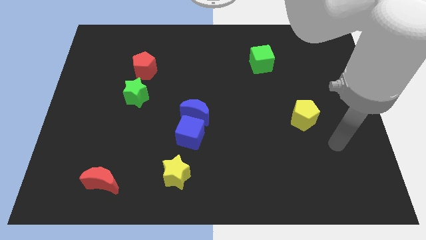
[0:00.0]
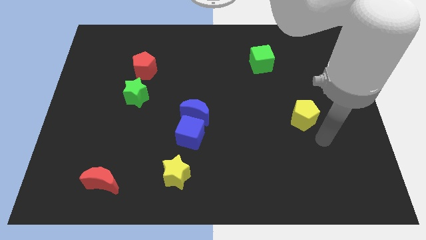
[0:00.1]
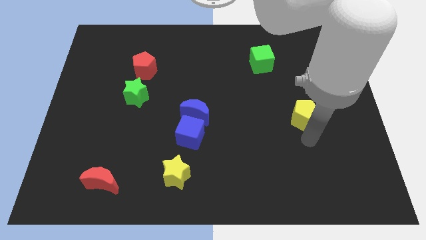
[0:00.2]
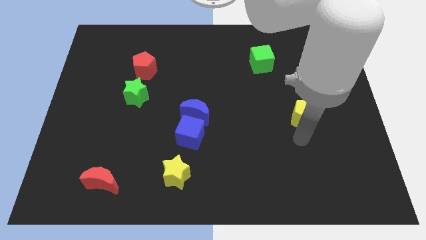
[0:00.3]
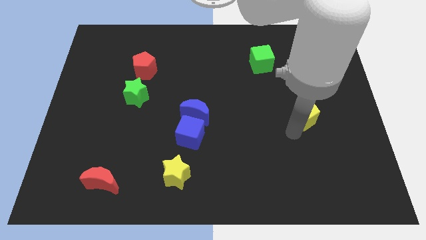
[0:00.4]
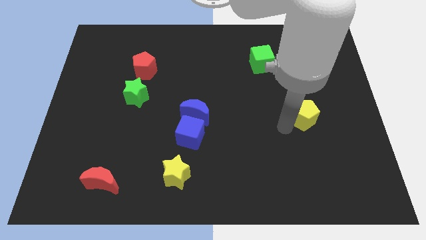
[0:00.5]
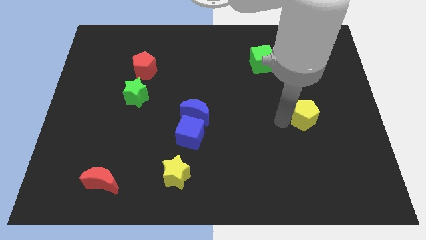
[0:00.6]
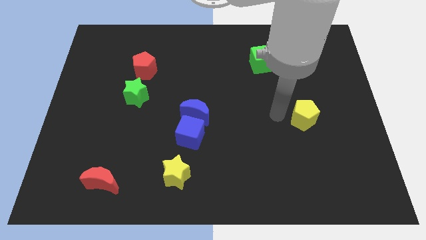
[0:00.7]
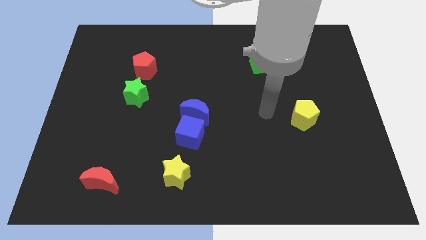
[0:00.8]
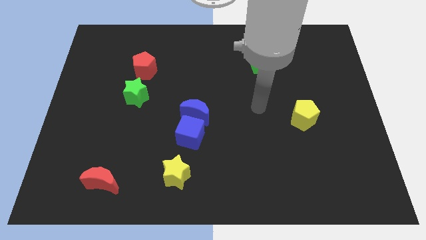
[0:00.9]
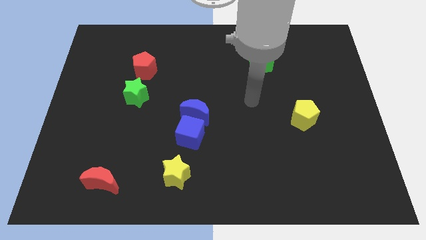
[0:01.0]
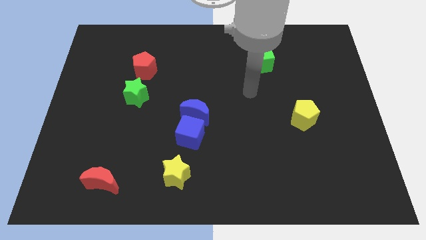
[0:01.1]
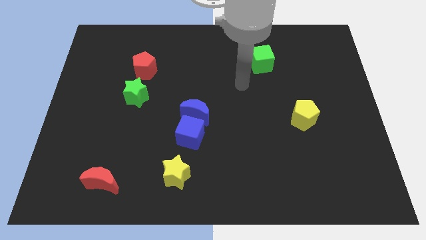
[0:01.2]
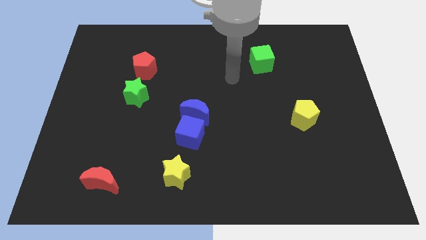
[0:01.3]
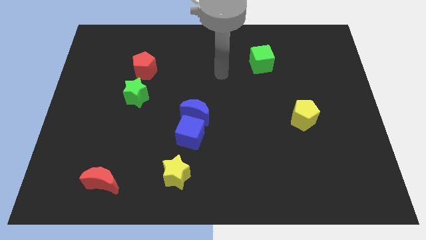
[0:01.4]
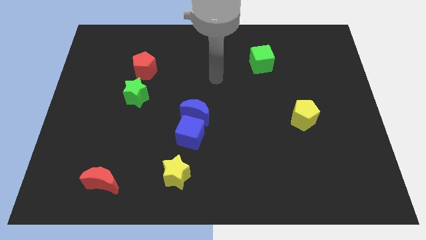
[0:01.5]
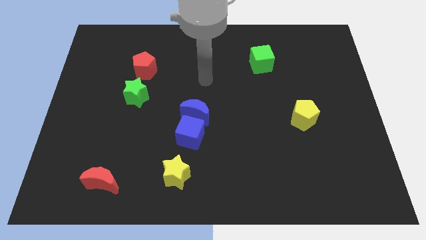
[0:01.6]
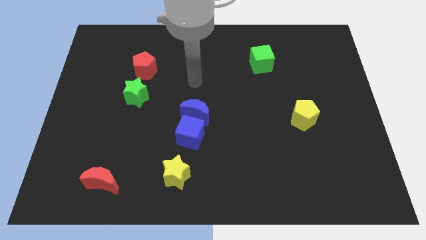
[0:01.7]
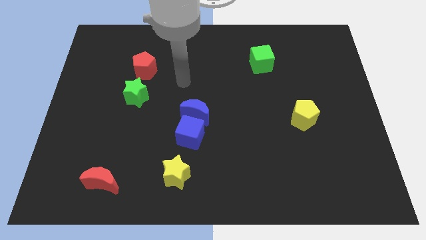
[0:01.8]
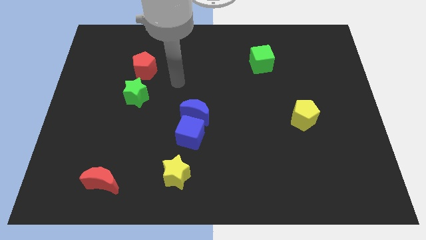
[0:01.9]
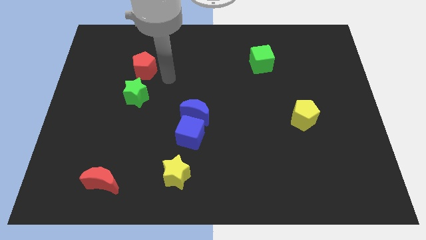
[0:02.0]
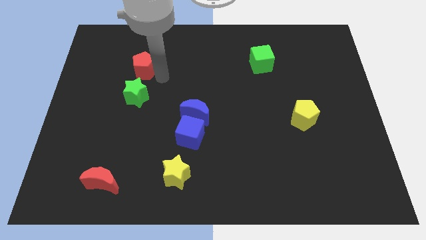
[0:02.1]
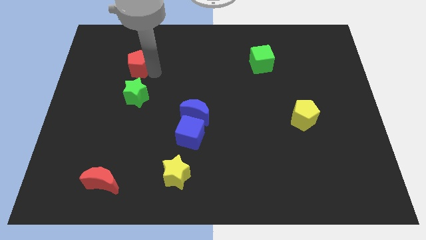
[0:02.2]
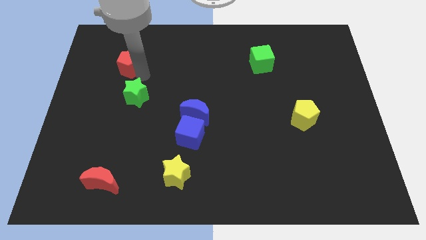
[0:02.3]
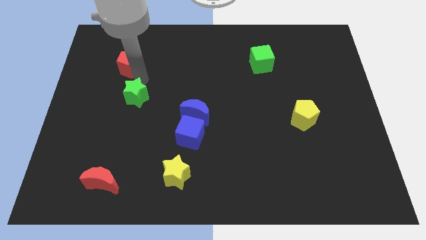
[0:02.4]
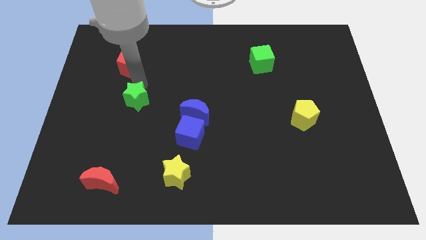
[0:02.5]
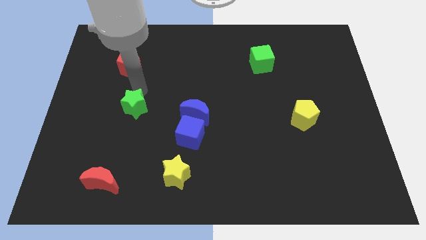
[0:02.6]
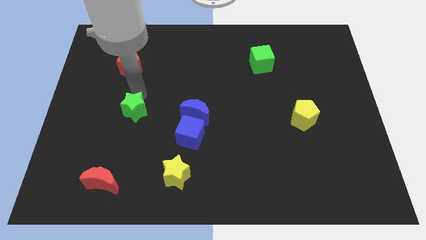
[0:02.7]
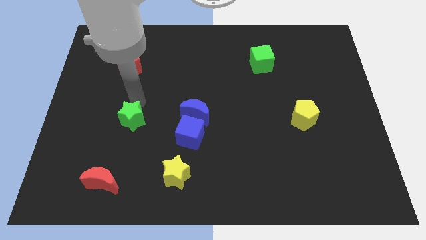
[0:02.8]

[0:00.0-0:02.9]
slightly slide the green star down

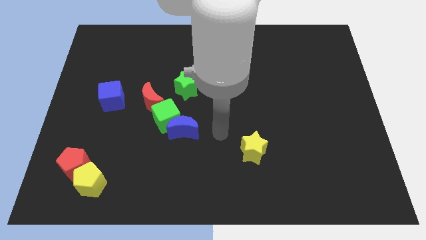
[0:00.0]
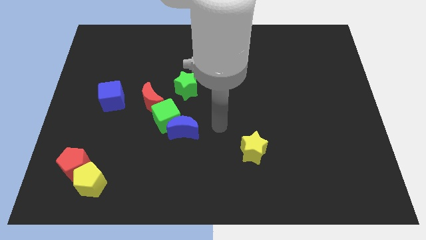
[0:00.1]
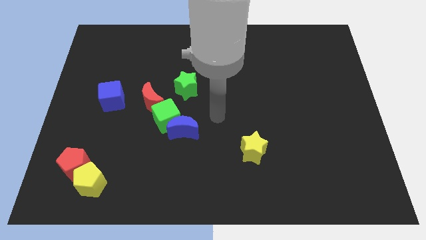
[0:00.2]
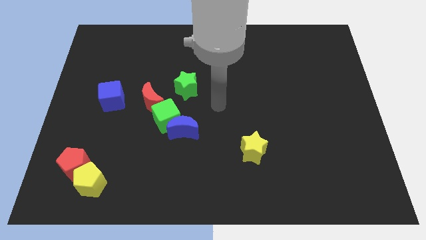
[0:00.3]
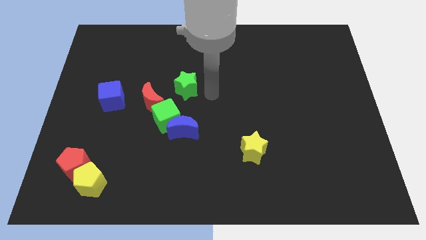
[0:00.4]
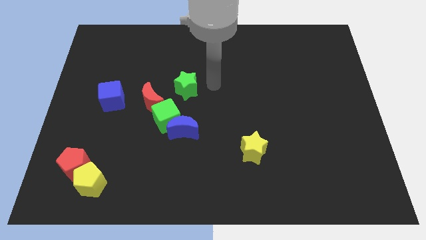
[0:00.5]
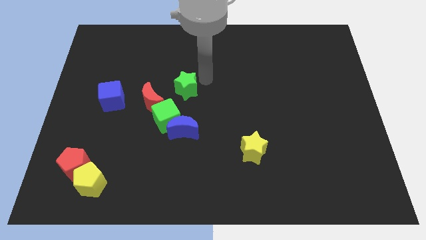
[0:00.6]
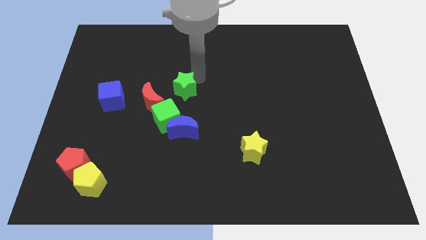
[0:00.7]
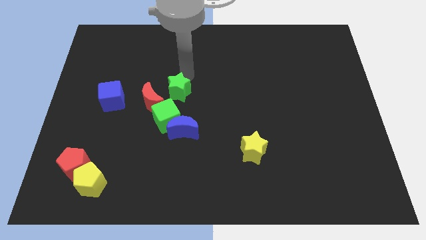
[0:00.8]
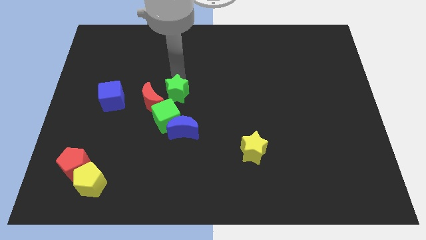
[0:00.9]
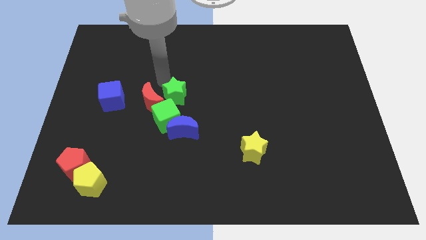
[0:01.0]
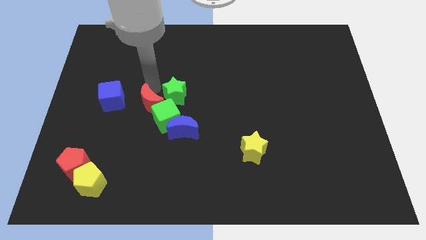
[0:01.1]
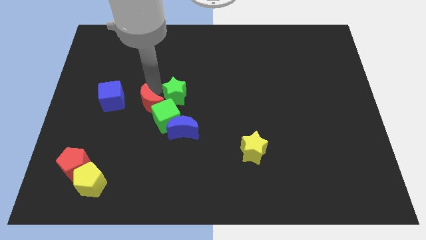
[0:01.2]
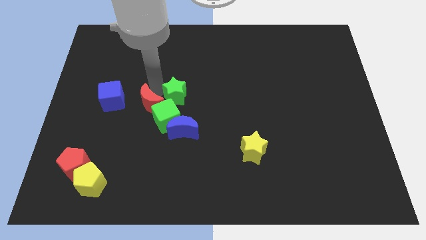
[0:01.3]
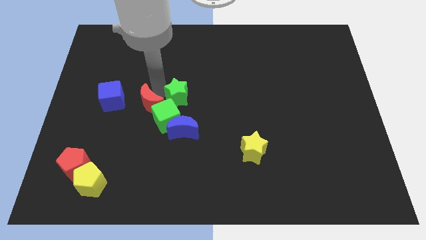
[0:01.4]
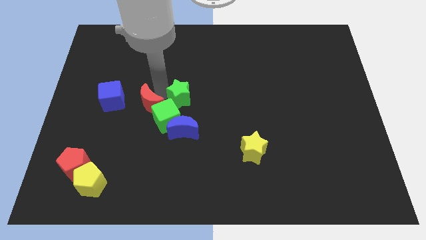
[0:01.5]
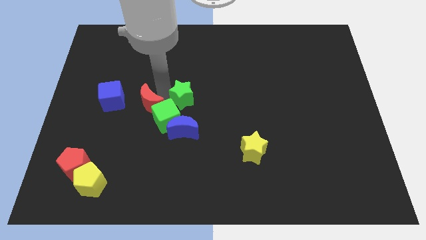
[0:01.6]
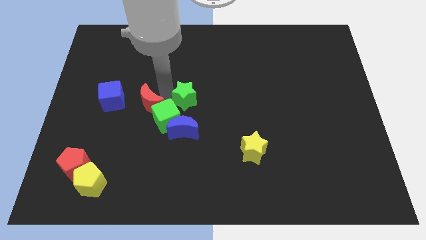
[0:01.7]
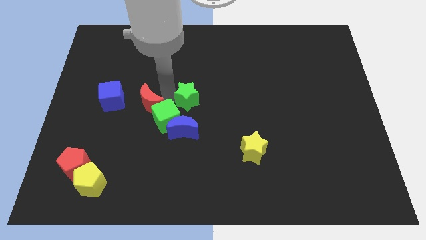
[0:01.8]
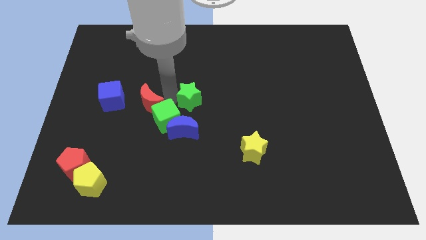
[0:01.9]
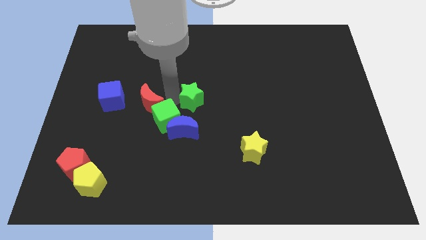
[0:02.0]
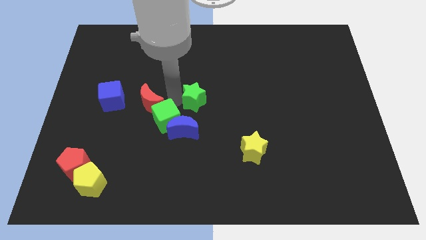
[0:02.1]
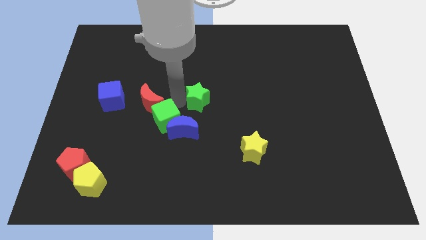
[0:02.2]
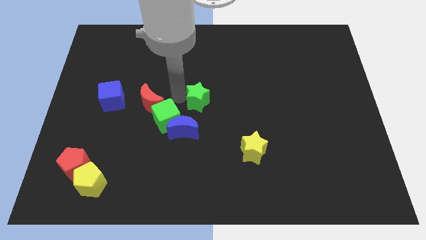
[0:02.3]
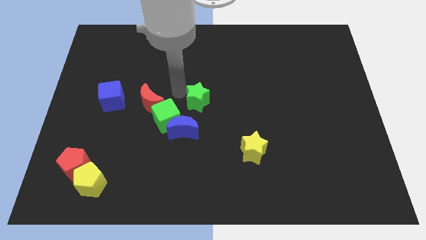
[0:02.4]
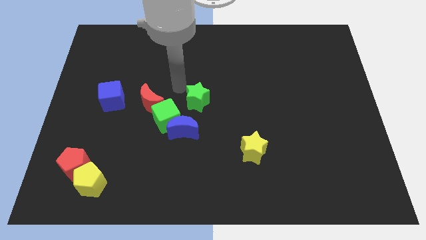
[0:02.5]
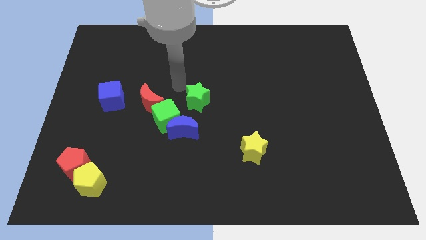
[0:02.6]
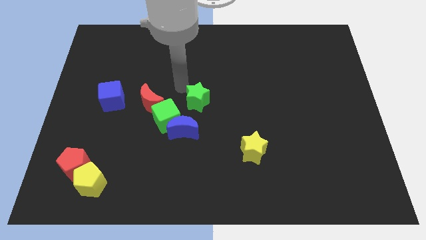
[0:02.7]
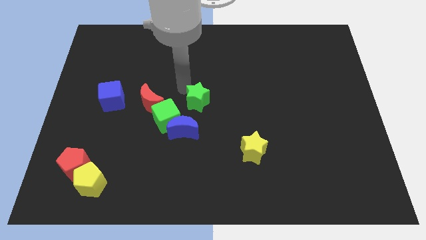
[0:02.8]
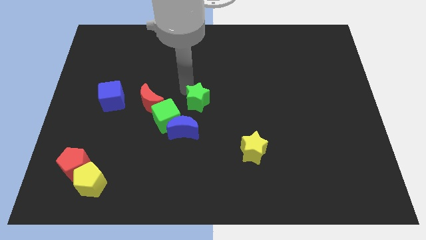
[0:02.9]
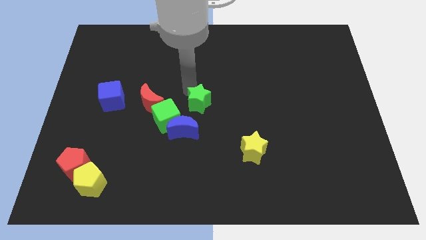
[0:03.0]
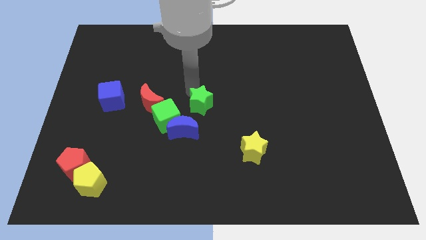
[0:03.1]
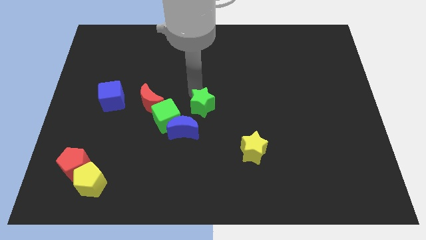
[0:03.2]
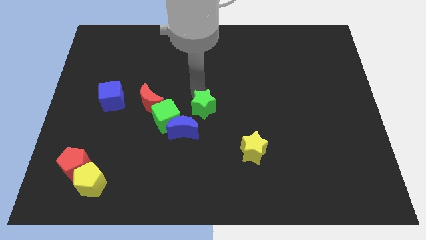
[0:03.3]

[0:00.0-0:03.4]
move the green star down and then to the right a little

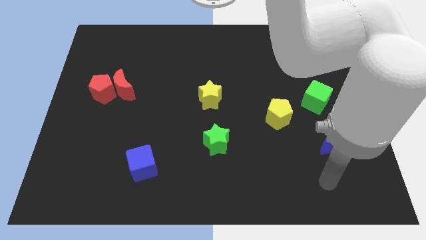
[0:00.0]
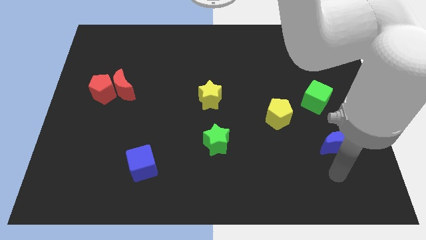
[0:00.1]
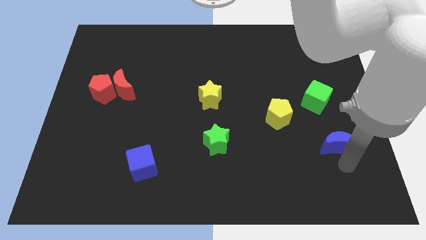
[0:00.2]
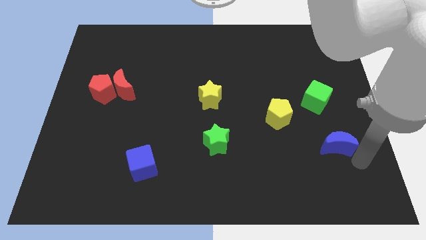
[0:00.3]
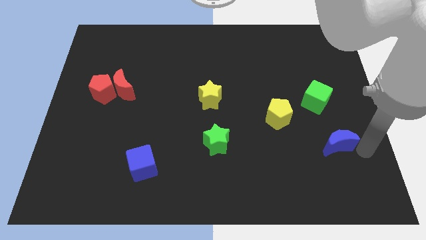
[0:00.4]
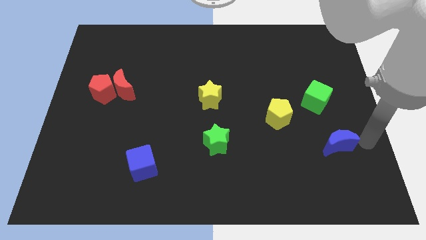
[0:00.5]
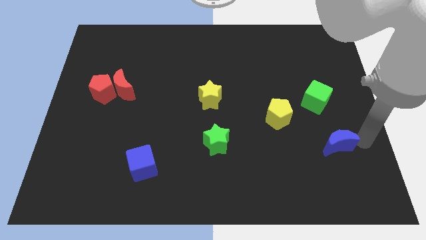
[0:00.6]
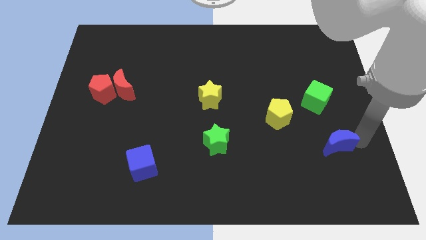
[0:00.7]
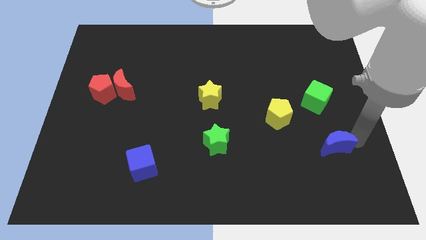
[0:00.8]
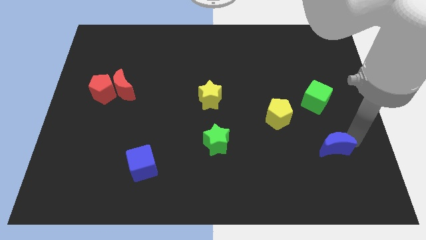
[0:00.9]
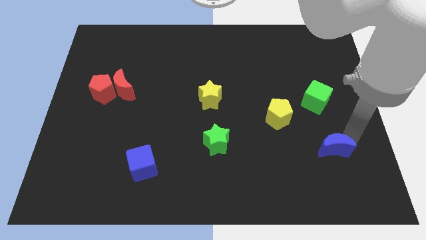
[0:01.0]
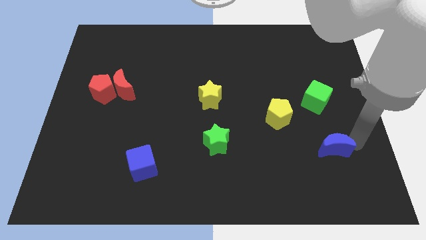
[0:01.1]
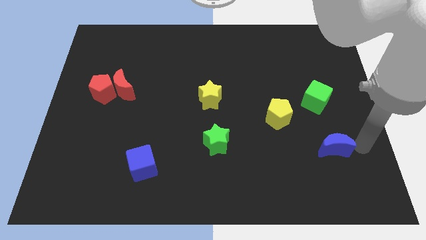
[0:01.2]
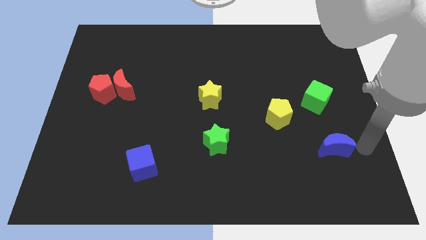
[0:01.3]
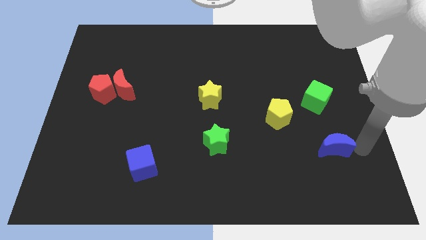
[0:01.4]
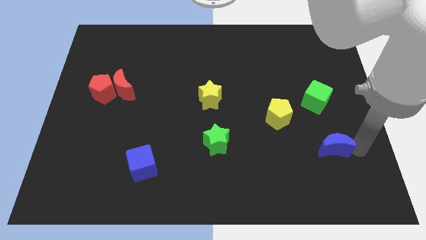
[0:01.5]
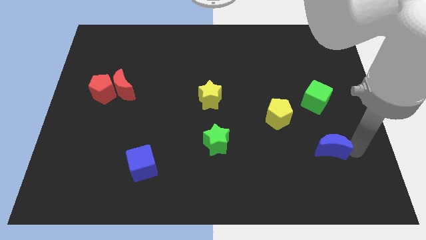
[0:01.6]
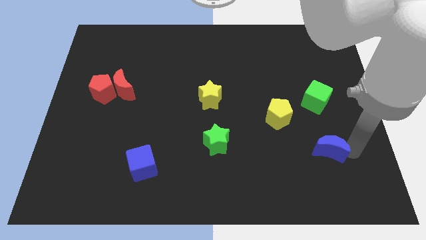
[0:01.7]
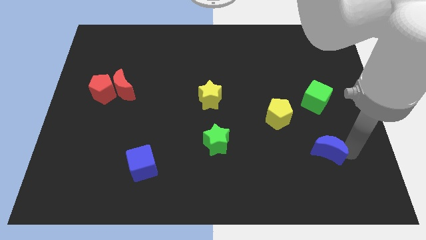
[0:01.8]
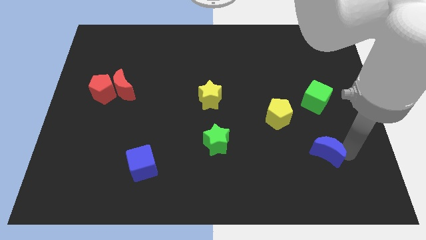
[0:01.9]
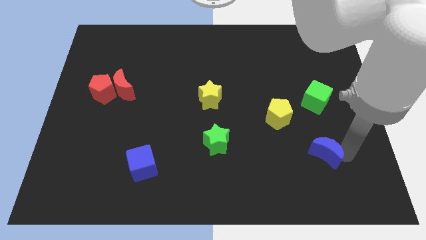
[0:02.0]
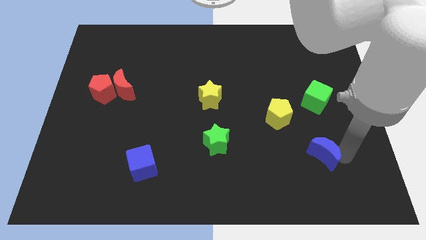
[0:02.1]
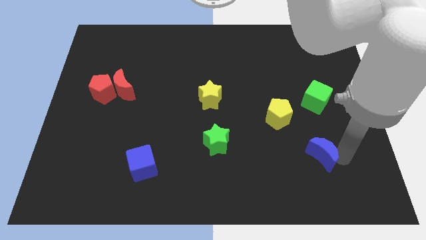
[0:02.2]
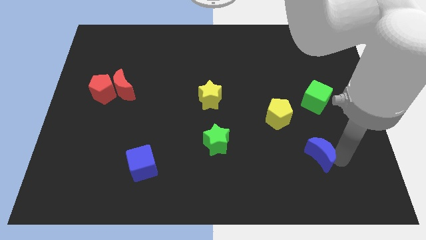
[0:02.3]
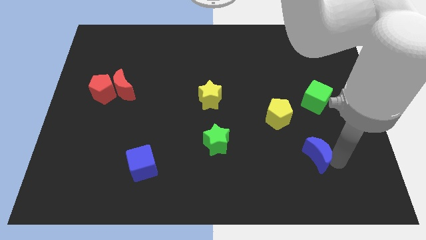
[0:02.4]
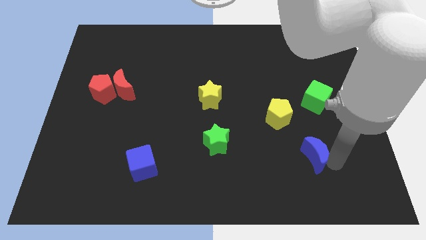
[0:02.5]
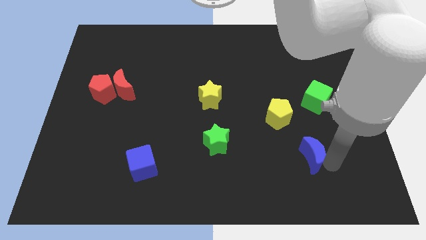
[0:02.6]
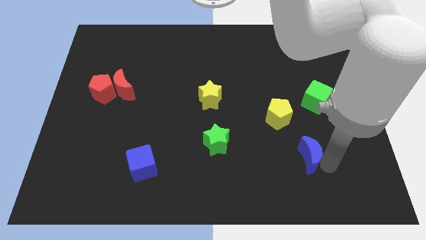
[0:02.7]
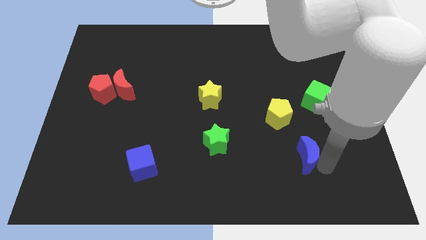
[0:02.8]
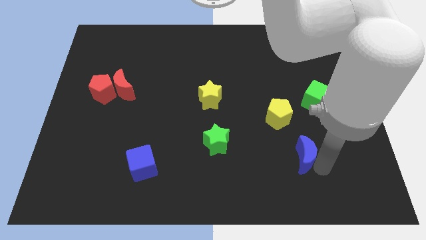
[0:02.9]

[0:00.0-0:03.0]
push the blue moon a bit to the left
